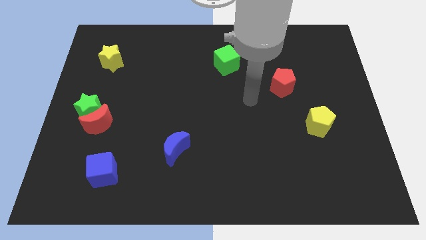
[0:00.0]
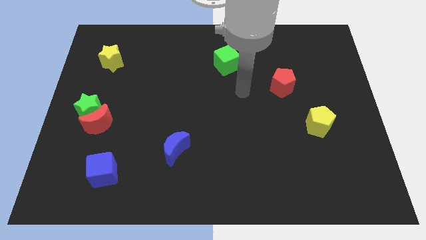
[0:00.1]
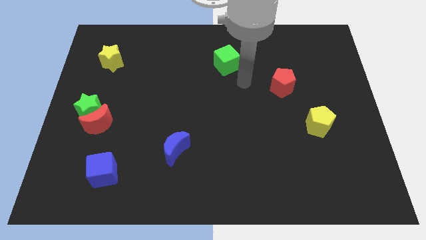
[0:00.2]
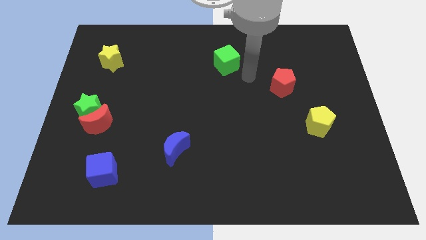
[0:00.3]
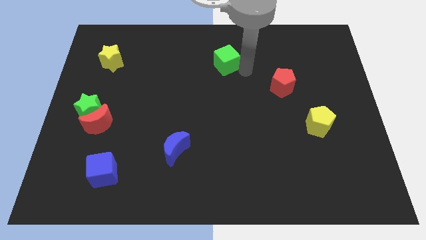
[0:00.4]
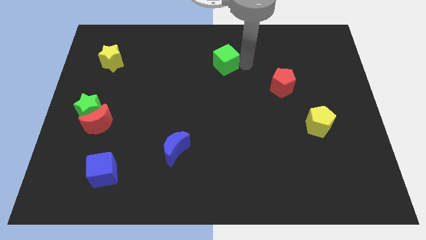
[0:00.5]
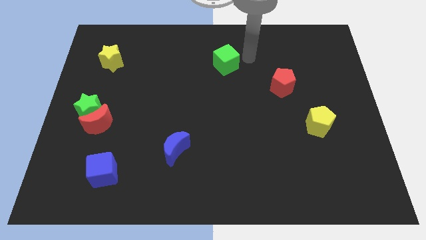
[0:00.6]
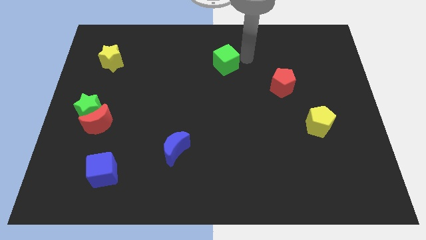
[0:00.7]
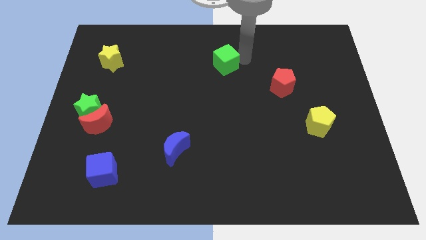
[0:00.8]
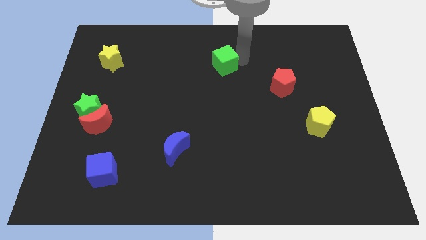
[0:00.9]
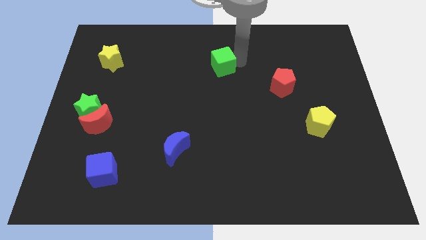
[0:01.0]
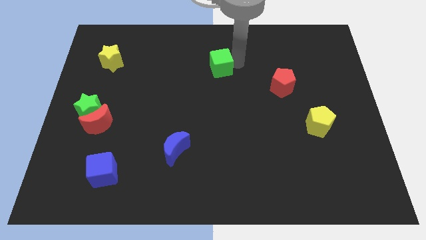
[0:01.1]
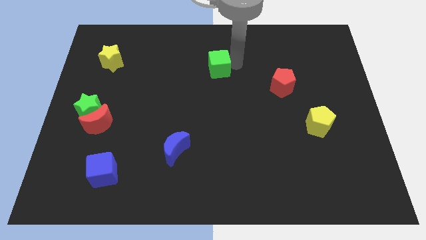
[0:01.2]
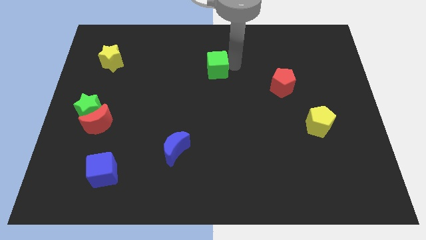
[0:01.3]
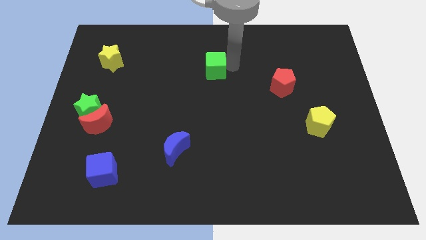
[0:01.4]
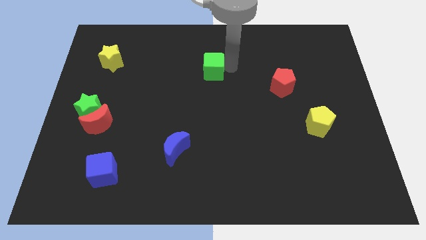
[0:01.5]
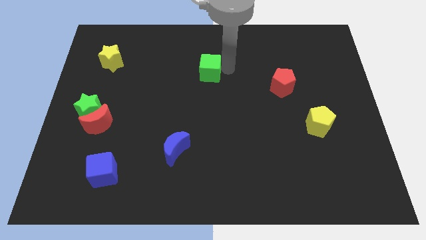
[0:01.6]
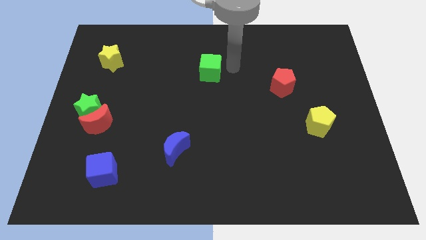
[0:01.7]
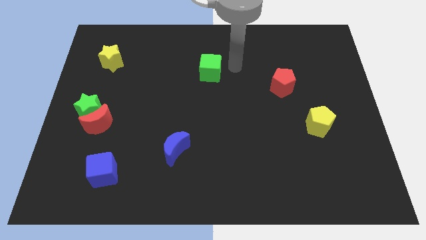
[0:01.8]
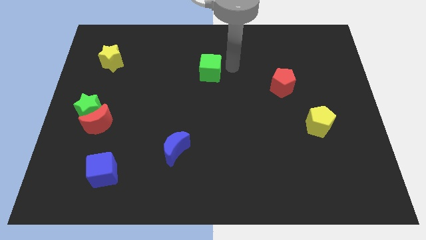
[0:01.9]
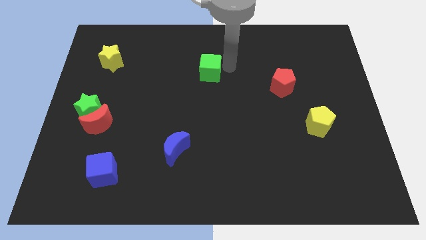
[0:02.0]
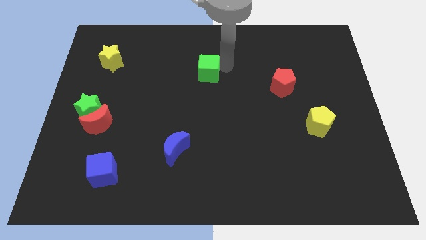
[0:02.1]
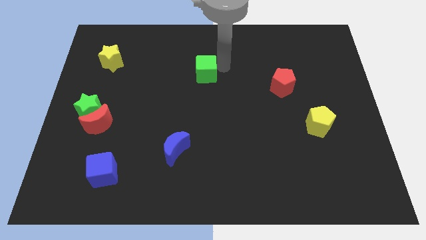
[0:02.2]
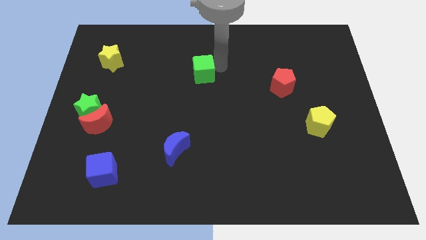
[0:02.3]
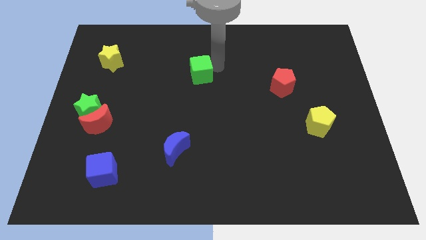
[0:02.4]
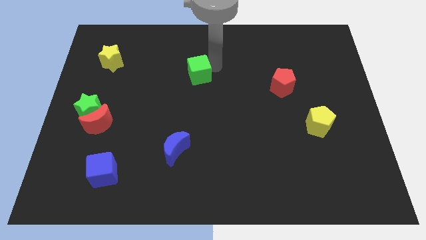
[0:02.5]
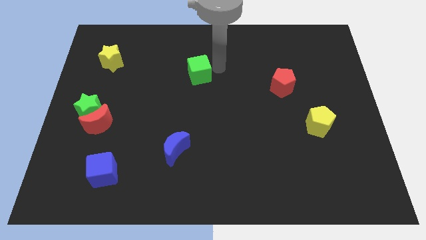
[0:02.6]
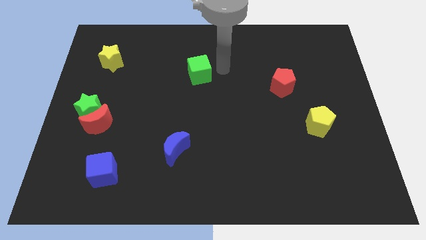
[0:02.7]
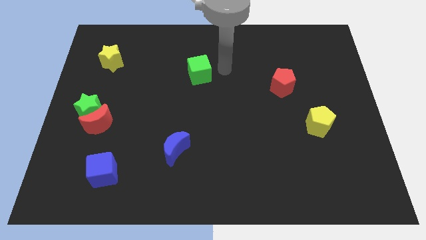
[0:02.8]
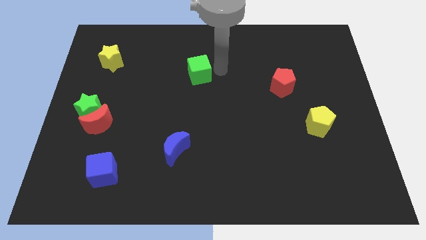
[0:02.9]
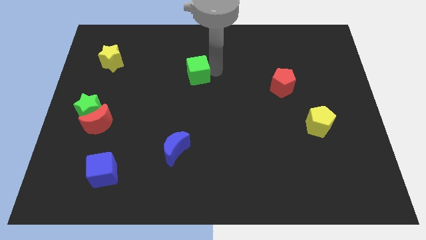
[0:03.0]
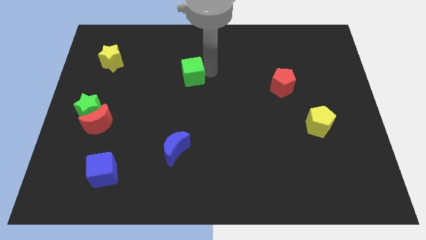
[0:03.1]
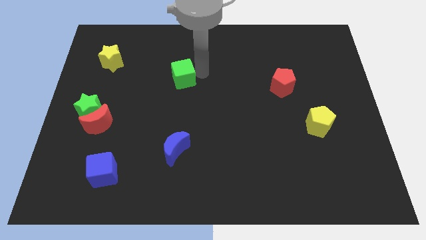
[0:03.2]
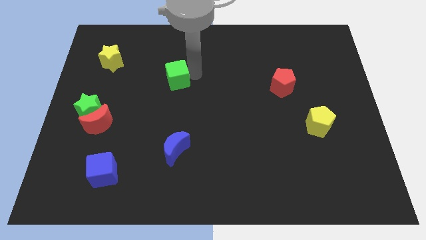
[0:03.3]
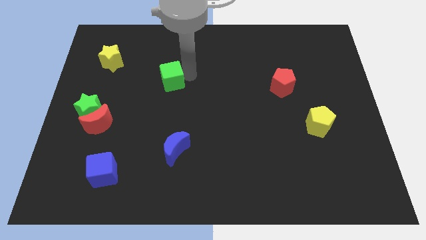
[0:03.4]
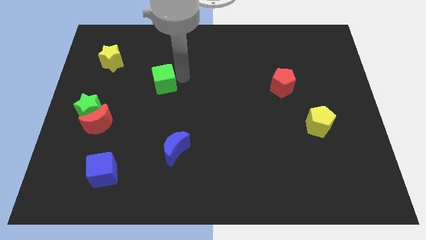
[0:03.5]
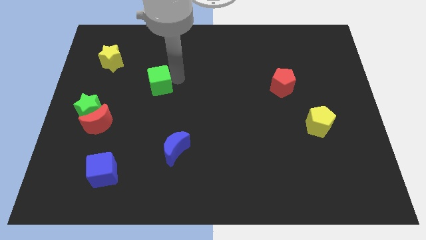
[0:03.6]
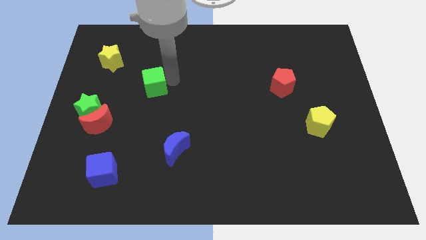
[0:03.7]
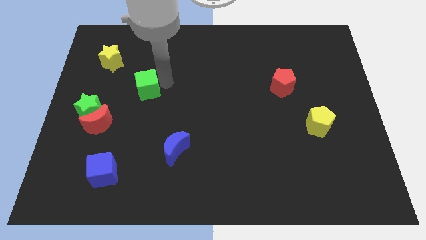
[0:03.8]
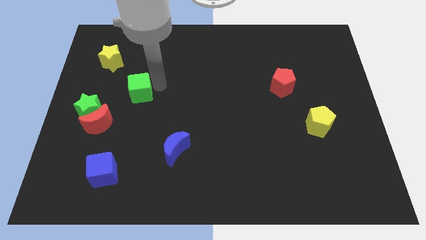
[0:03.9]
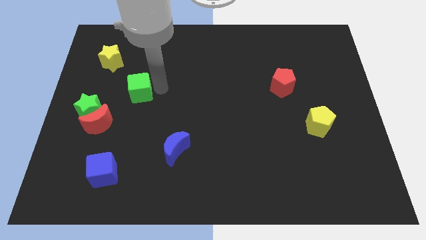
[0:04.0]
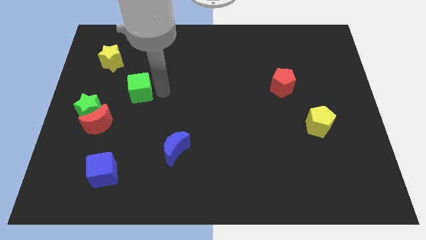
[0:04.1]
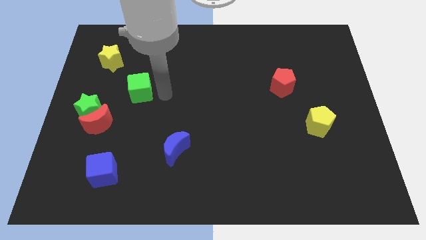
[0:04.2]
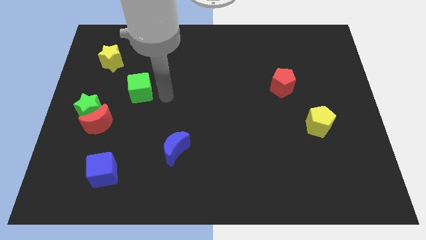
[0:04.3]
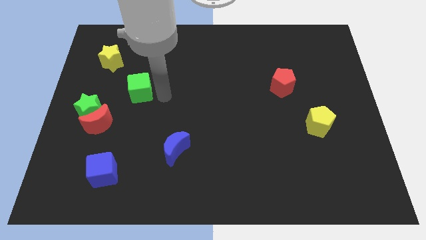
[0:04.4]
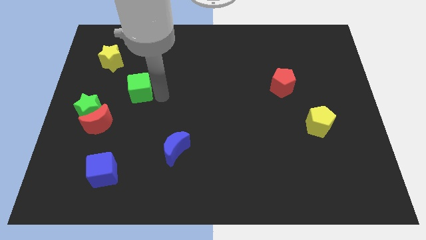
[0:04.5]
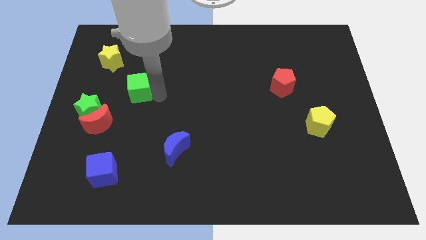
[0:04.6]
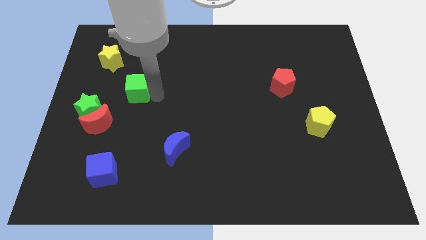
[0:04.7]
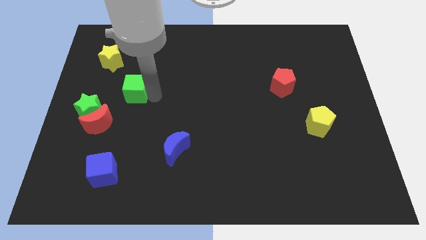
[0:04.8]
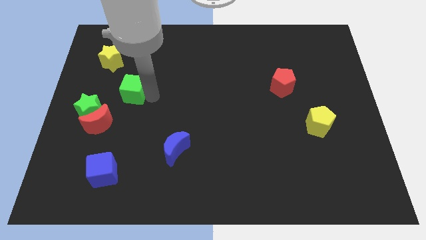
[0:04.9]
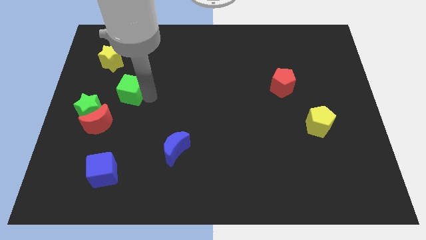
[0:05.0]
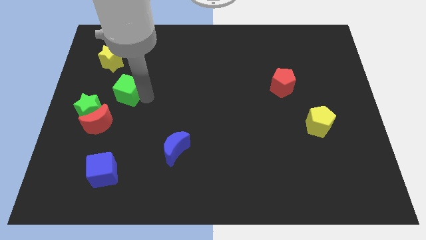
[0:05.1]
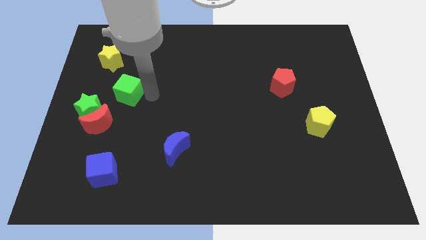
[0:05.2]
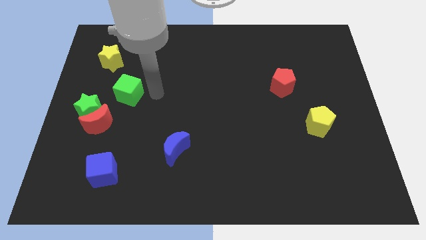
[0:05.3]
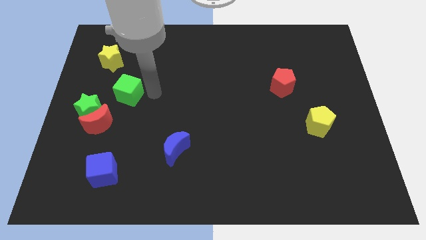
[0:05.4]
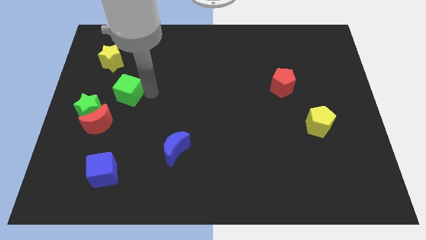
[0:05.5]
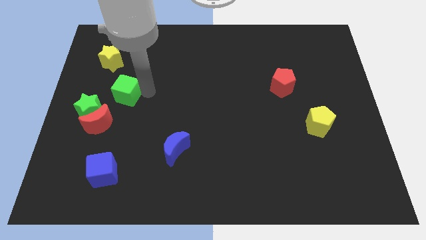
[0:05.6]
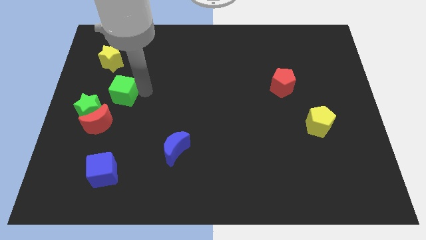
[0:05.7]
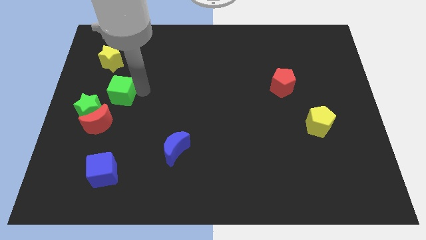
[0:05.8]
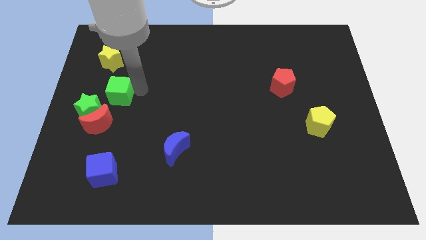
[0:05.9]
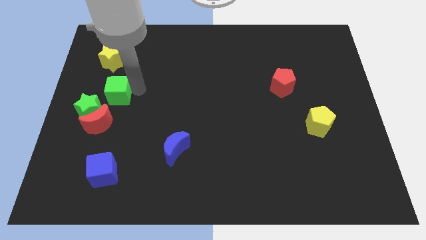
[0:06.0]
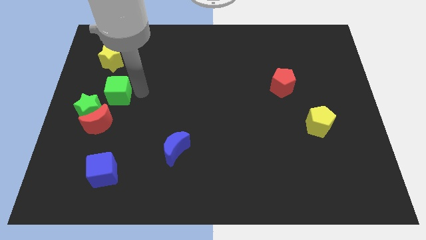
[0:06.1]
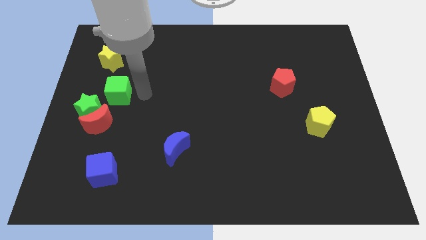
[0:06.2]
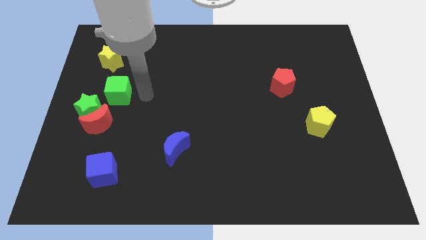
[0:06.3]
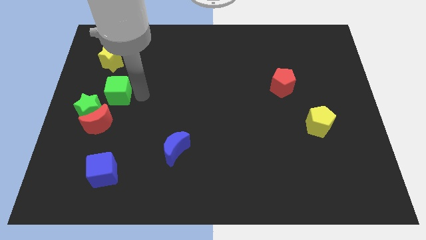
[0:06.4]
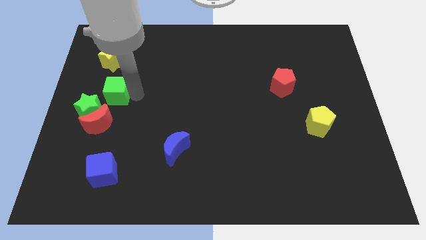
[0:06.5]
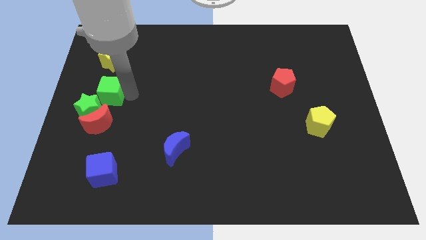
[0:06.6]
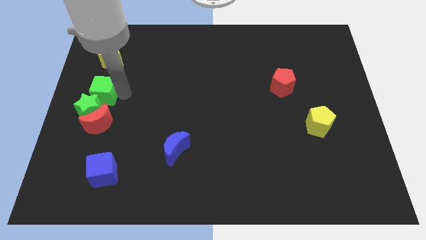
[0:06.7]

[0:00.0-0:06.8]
push the green cube to the center left
